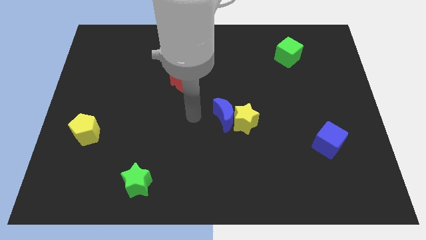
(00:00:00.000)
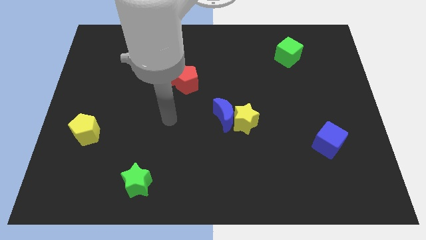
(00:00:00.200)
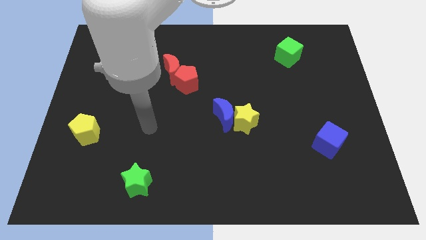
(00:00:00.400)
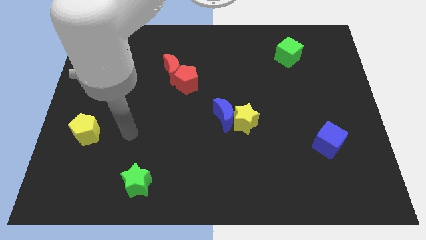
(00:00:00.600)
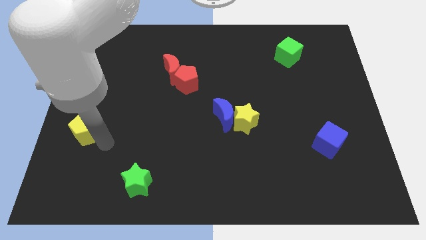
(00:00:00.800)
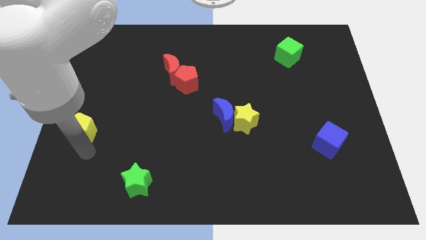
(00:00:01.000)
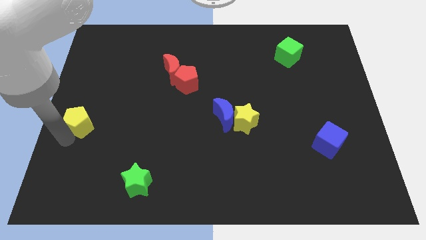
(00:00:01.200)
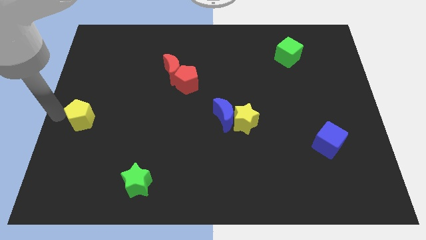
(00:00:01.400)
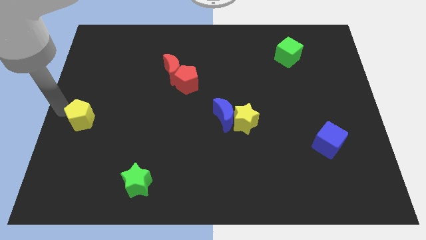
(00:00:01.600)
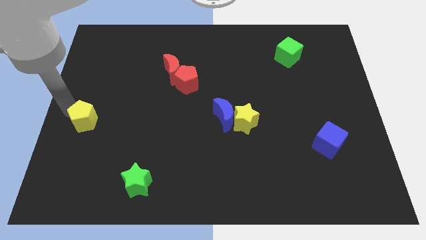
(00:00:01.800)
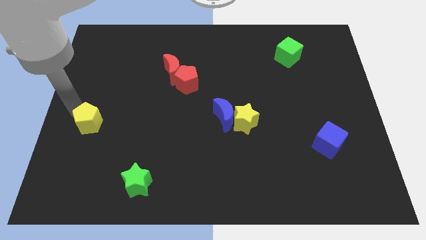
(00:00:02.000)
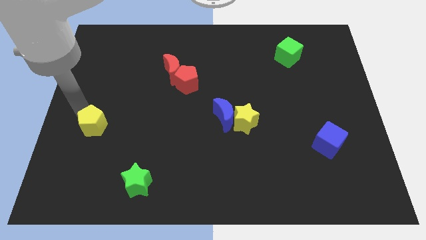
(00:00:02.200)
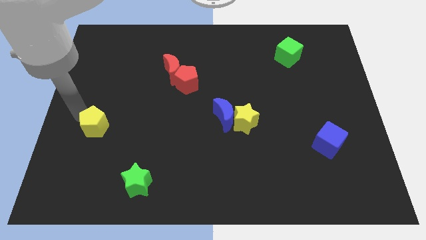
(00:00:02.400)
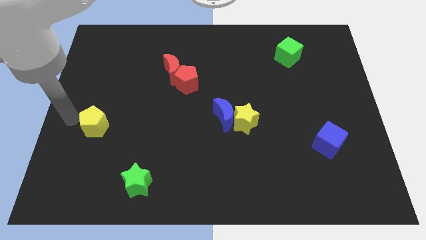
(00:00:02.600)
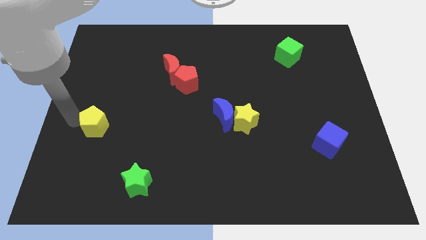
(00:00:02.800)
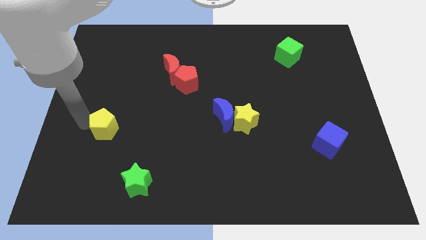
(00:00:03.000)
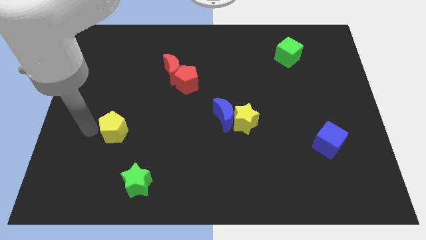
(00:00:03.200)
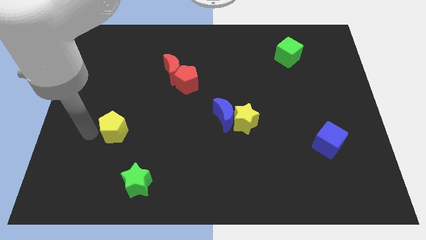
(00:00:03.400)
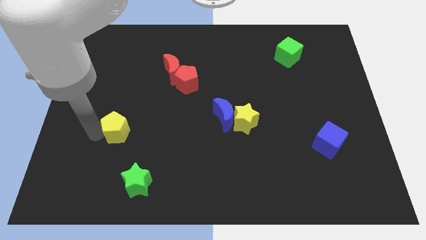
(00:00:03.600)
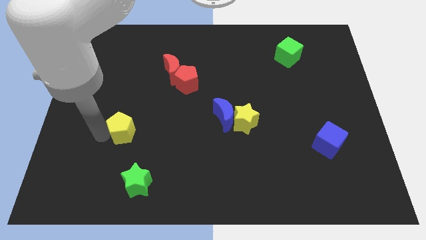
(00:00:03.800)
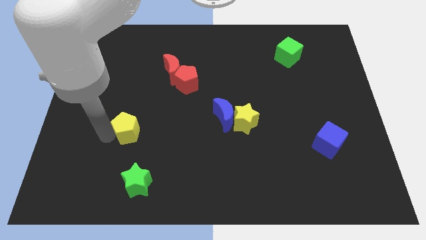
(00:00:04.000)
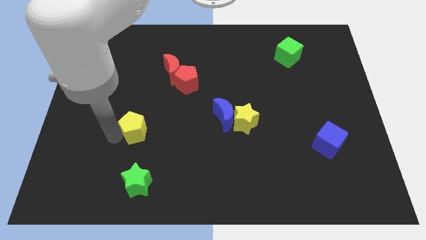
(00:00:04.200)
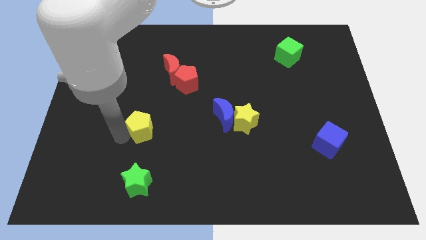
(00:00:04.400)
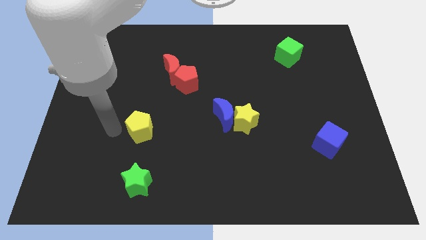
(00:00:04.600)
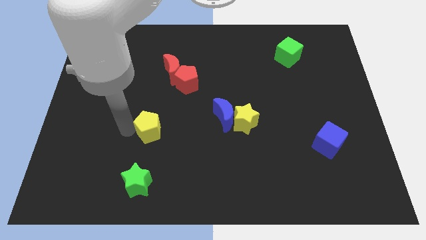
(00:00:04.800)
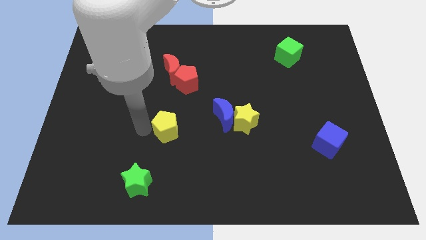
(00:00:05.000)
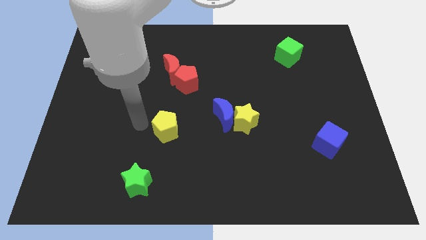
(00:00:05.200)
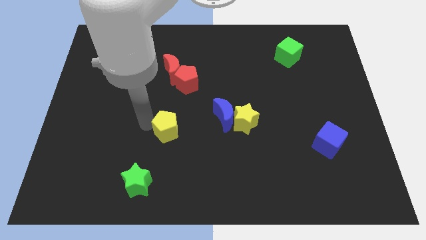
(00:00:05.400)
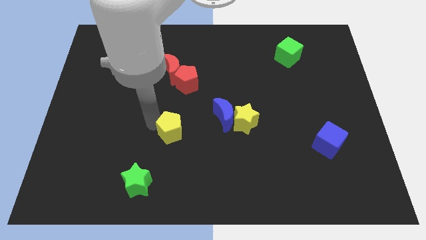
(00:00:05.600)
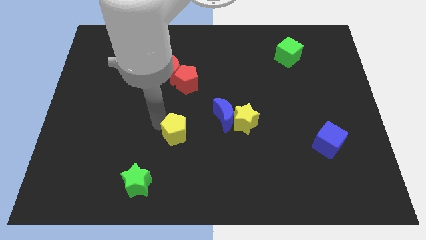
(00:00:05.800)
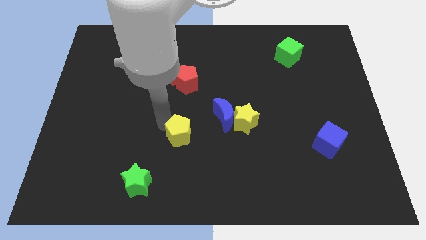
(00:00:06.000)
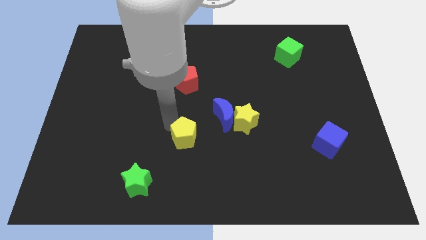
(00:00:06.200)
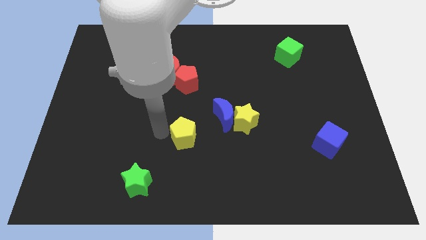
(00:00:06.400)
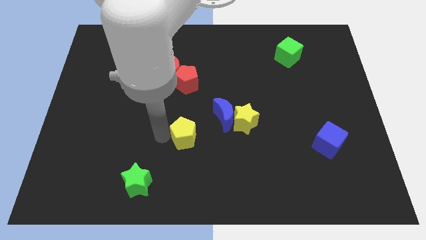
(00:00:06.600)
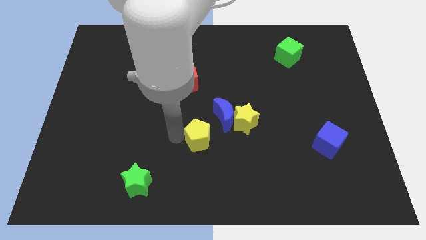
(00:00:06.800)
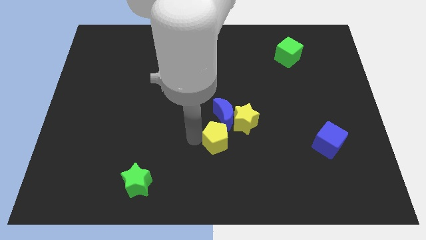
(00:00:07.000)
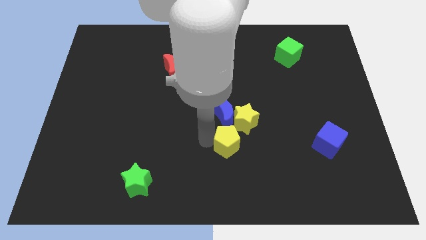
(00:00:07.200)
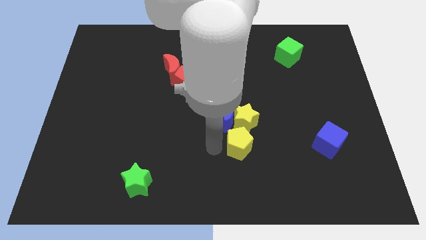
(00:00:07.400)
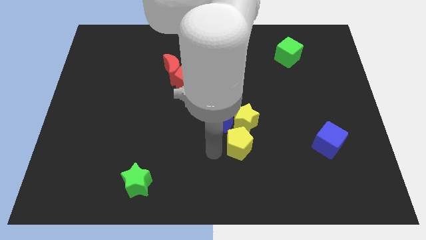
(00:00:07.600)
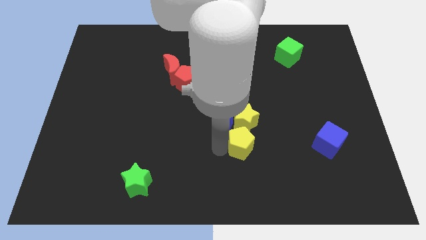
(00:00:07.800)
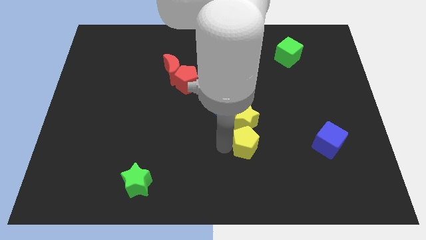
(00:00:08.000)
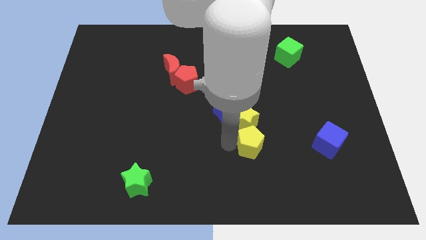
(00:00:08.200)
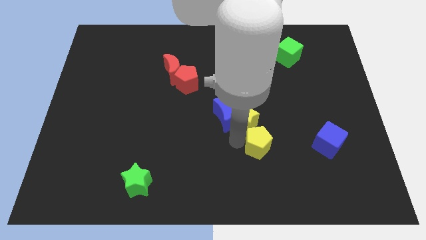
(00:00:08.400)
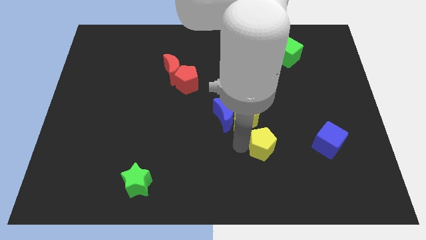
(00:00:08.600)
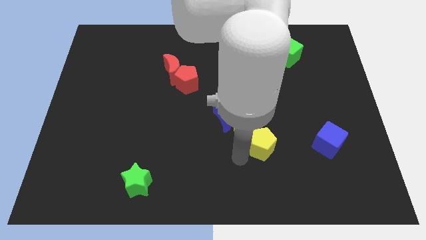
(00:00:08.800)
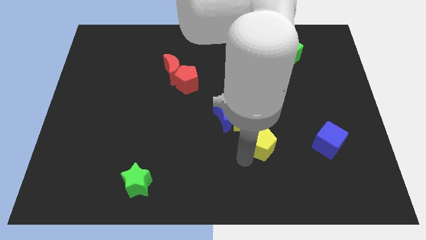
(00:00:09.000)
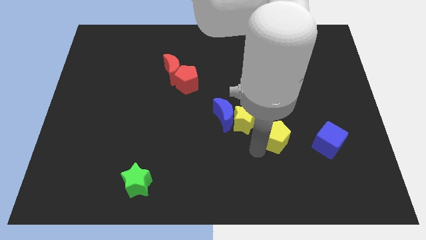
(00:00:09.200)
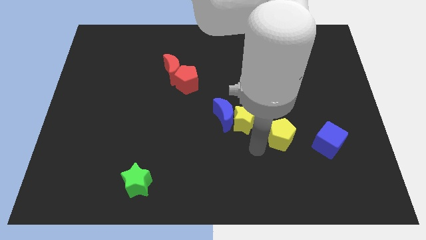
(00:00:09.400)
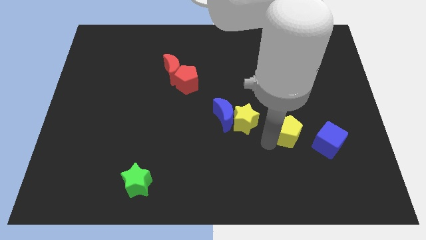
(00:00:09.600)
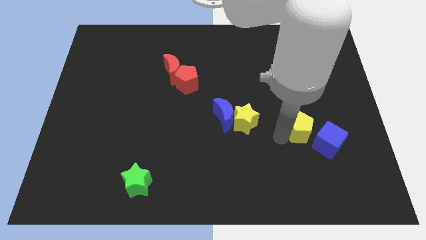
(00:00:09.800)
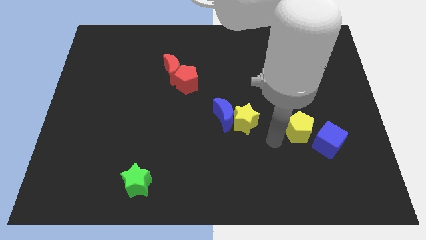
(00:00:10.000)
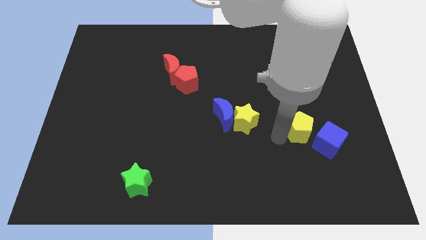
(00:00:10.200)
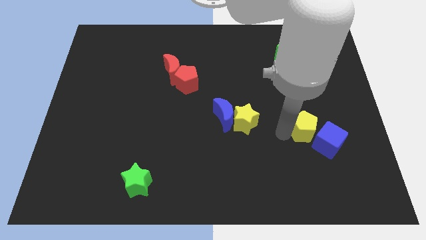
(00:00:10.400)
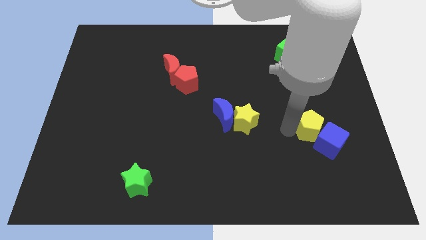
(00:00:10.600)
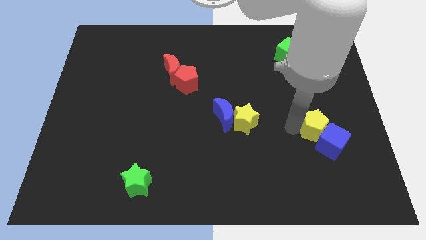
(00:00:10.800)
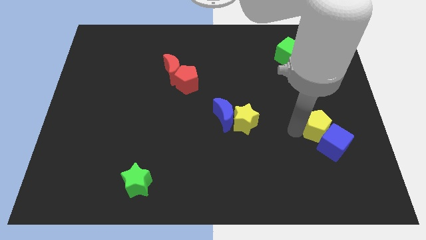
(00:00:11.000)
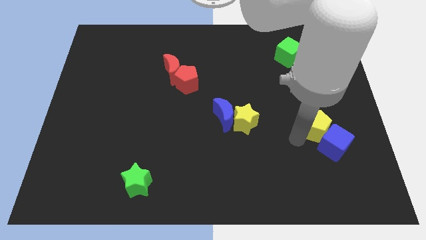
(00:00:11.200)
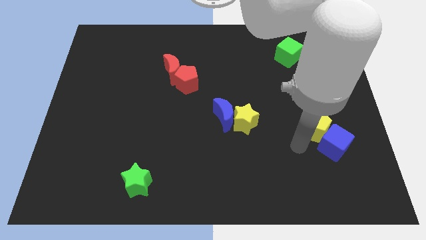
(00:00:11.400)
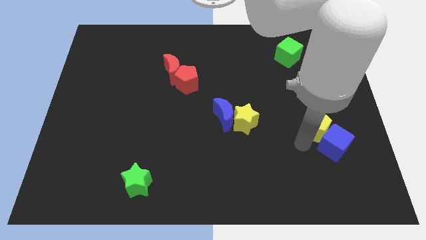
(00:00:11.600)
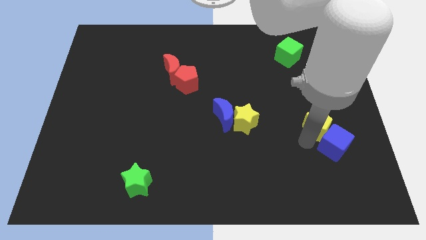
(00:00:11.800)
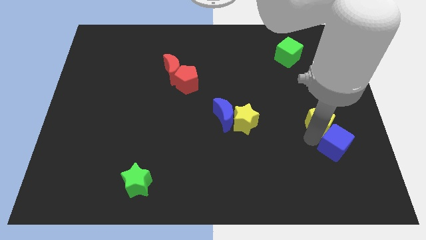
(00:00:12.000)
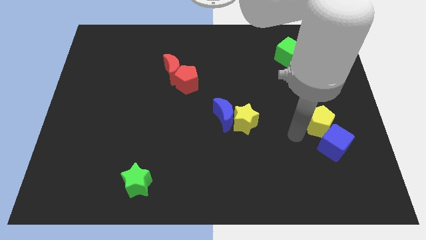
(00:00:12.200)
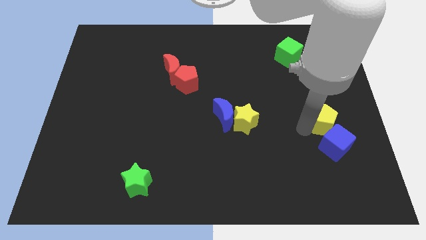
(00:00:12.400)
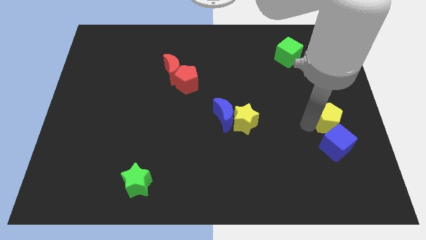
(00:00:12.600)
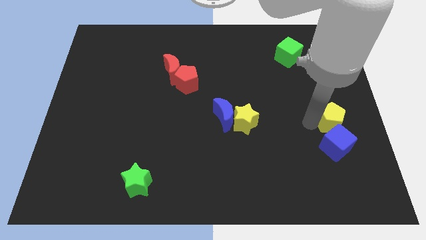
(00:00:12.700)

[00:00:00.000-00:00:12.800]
slide the yellow pentagon to the right side of the board

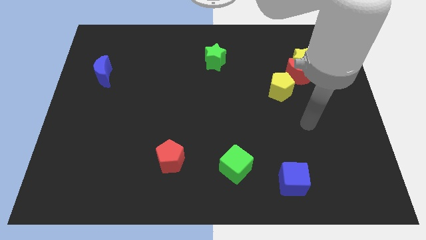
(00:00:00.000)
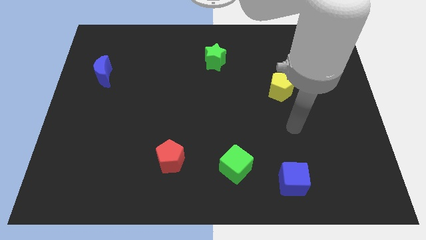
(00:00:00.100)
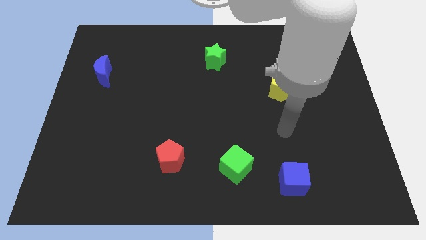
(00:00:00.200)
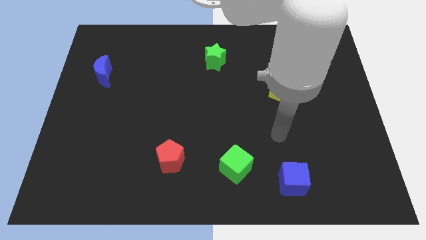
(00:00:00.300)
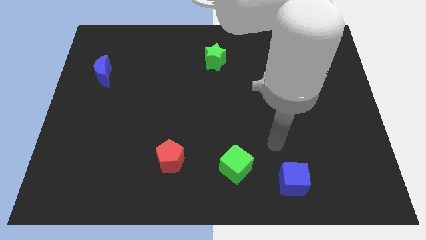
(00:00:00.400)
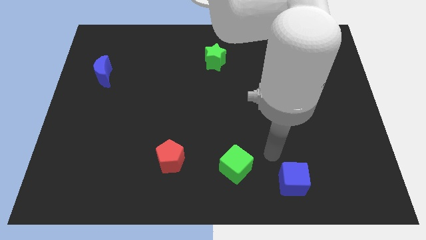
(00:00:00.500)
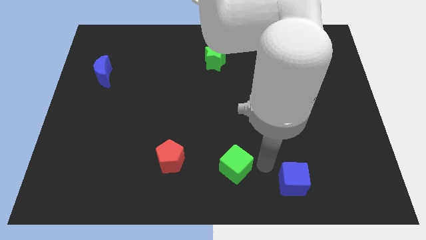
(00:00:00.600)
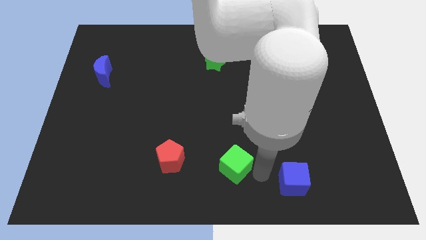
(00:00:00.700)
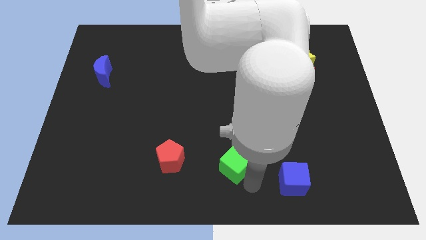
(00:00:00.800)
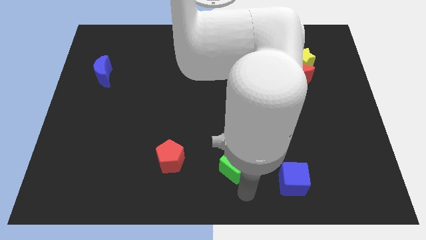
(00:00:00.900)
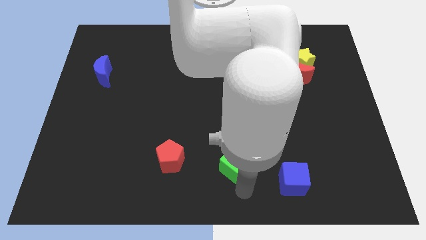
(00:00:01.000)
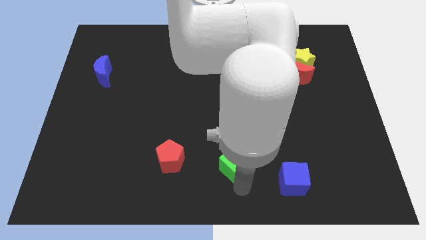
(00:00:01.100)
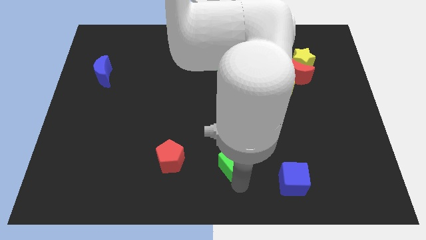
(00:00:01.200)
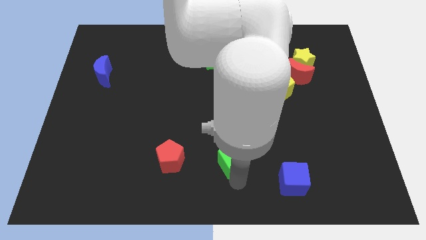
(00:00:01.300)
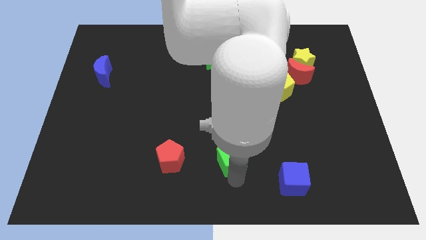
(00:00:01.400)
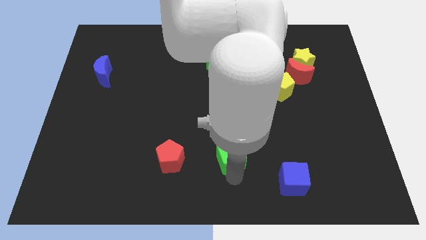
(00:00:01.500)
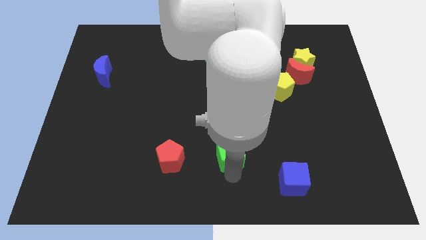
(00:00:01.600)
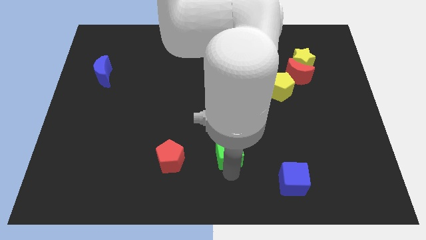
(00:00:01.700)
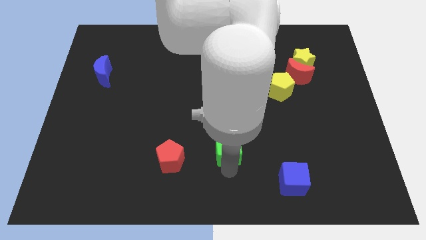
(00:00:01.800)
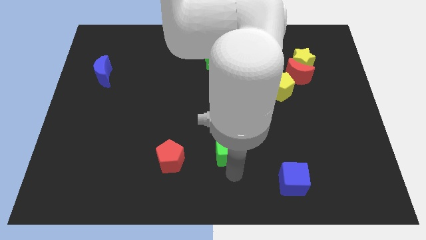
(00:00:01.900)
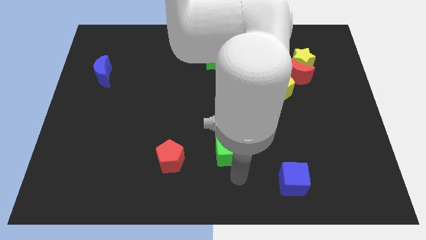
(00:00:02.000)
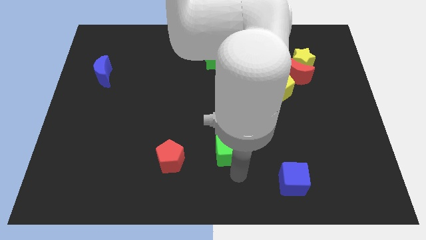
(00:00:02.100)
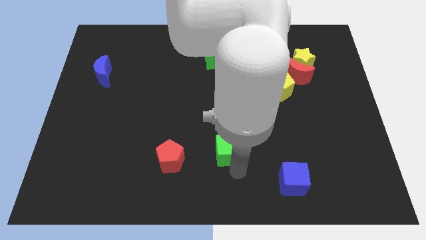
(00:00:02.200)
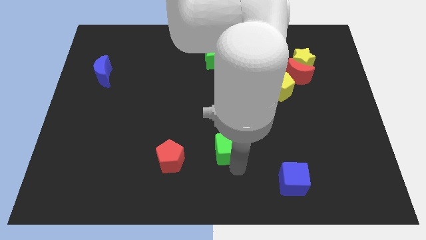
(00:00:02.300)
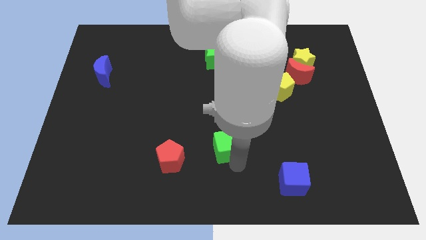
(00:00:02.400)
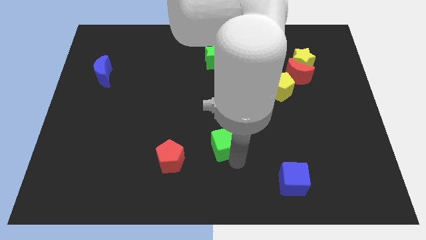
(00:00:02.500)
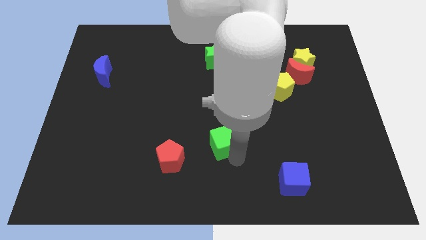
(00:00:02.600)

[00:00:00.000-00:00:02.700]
move the green cube to the middle
